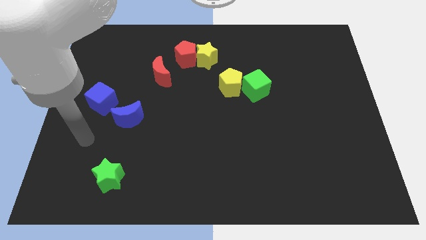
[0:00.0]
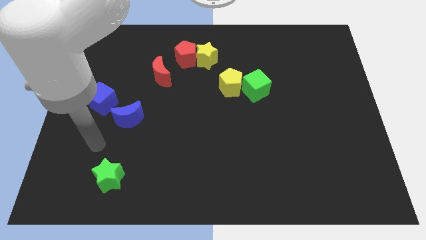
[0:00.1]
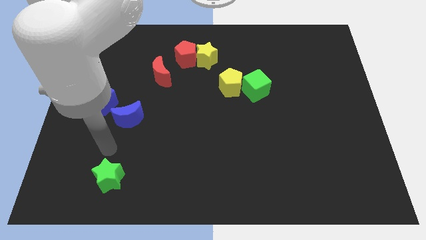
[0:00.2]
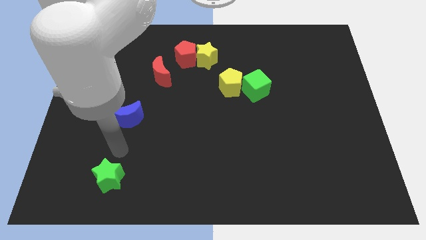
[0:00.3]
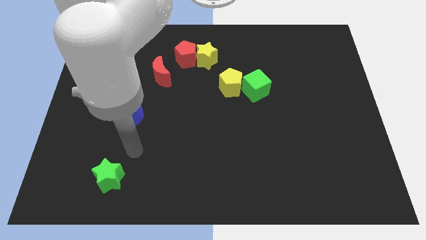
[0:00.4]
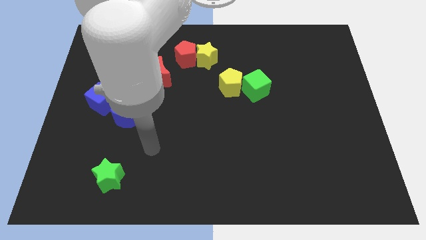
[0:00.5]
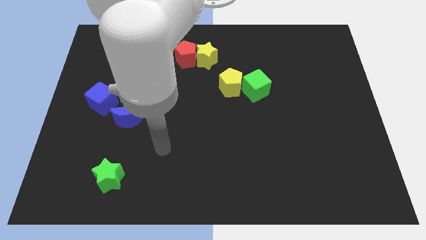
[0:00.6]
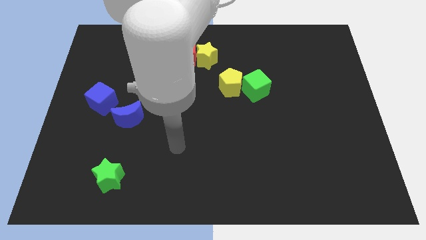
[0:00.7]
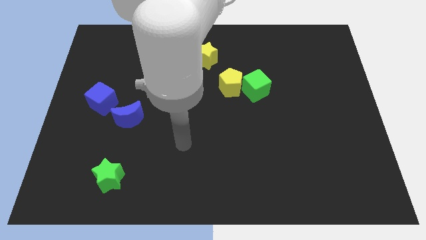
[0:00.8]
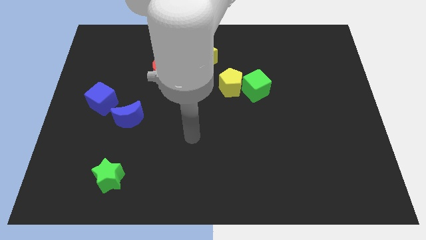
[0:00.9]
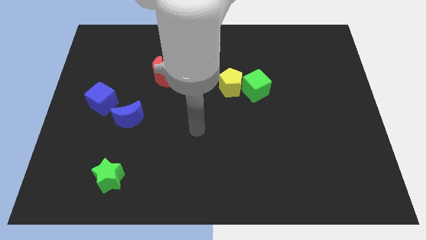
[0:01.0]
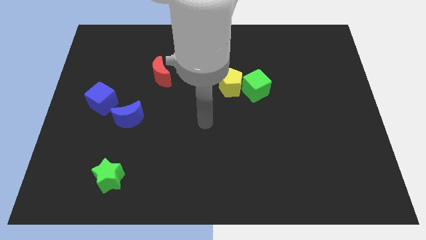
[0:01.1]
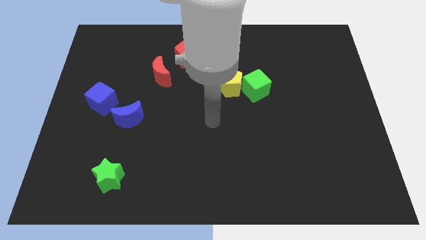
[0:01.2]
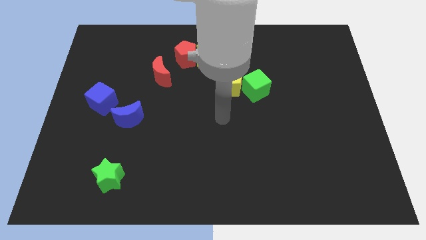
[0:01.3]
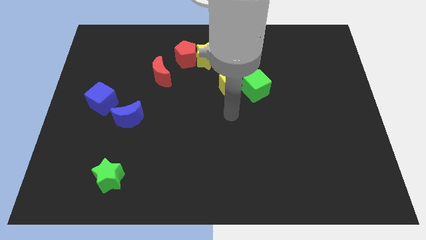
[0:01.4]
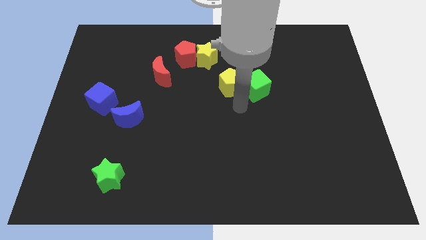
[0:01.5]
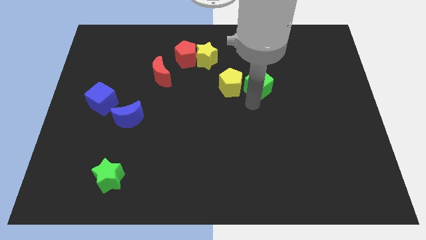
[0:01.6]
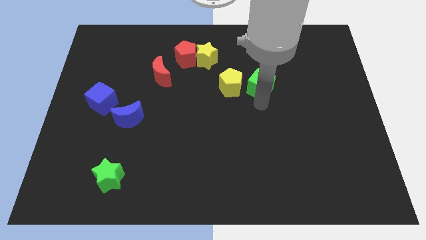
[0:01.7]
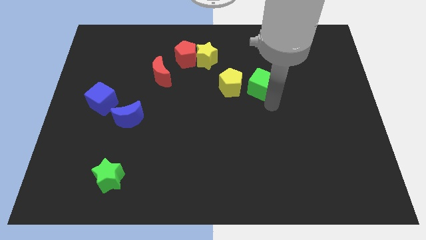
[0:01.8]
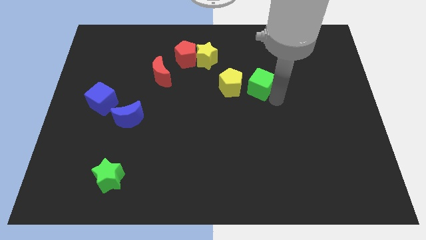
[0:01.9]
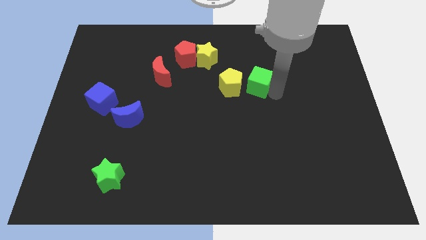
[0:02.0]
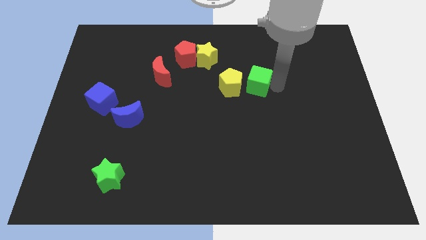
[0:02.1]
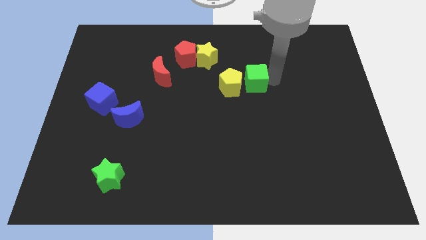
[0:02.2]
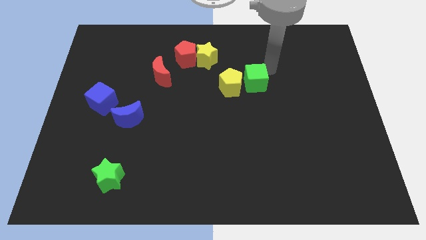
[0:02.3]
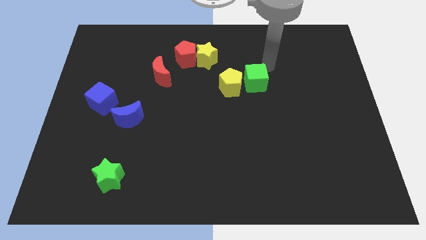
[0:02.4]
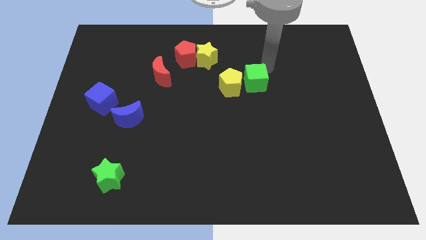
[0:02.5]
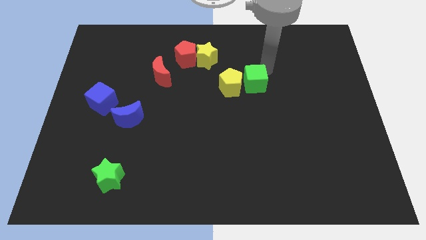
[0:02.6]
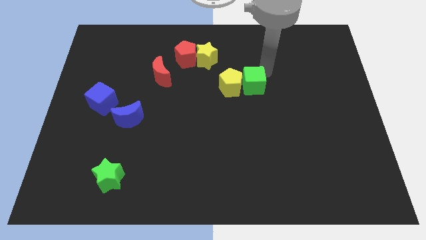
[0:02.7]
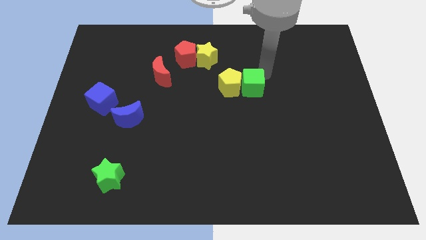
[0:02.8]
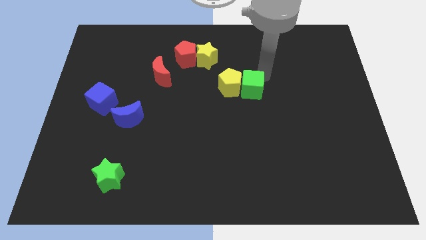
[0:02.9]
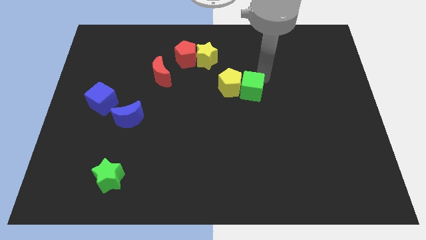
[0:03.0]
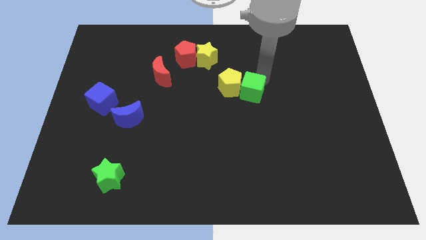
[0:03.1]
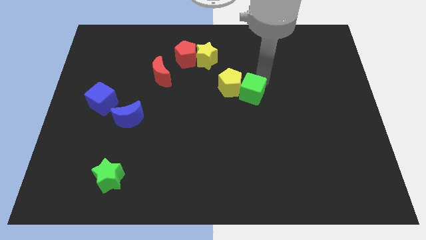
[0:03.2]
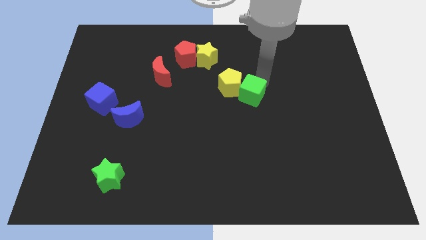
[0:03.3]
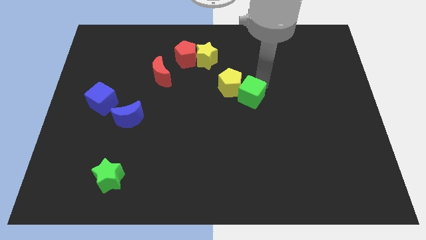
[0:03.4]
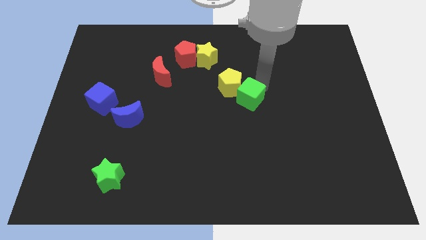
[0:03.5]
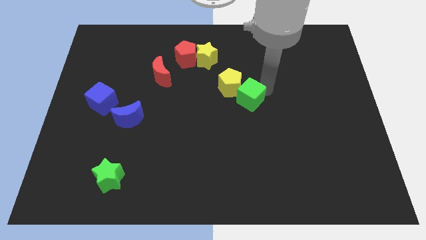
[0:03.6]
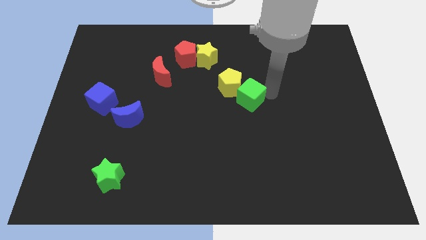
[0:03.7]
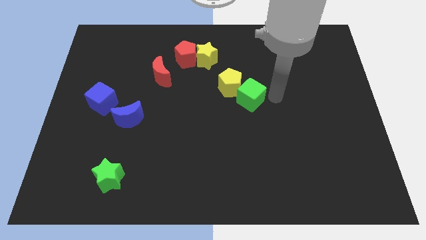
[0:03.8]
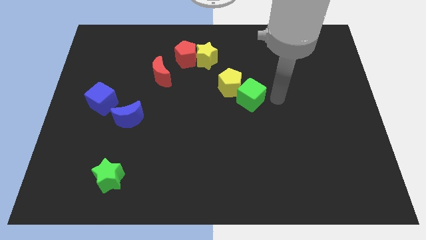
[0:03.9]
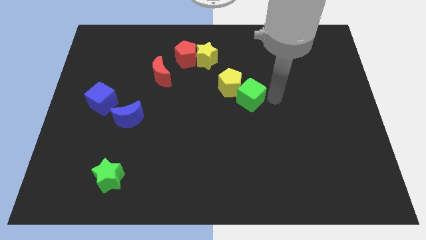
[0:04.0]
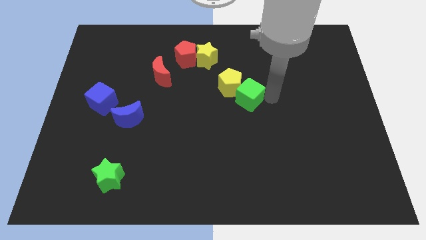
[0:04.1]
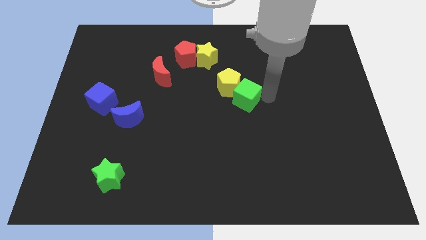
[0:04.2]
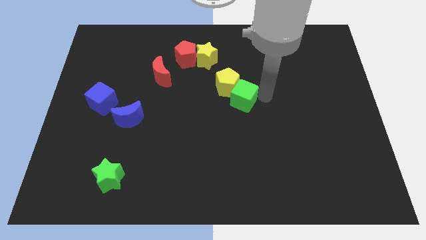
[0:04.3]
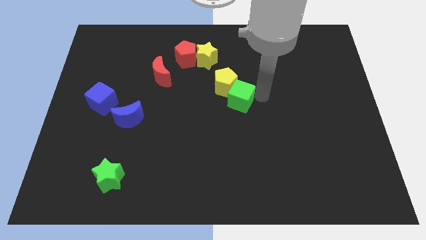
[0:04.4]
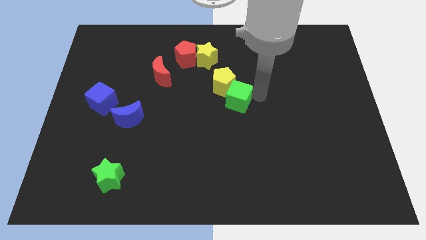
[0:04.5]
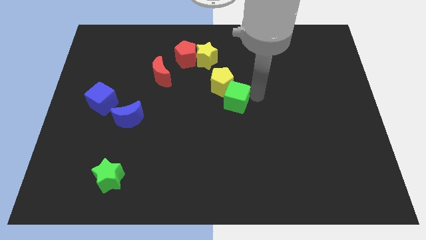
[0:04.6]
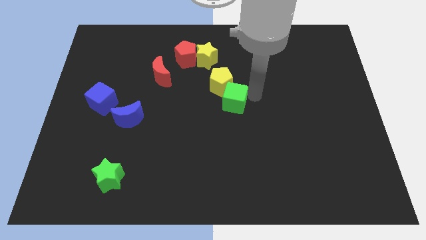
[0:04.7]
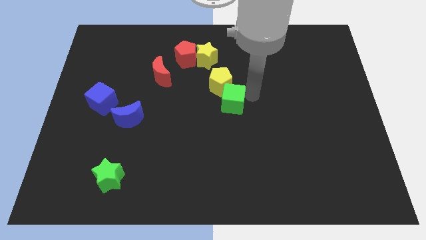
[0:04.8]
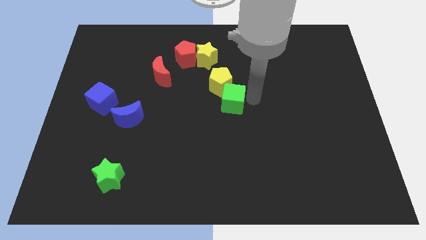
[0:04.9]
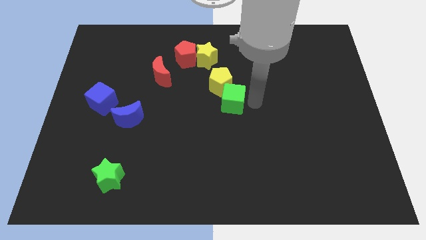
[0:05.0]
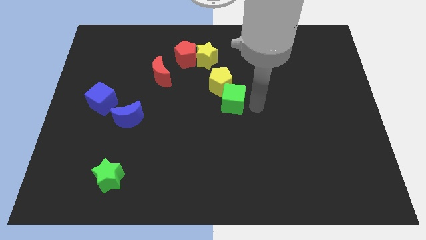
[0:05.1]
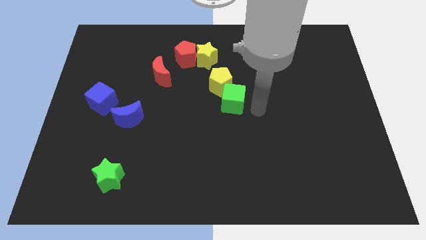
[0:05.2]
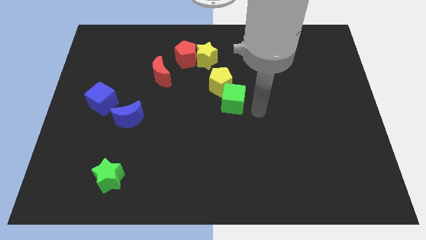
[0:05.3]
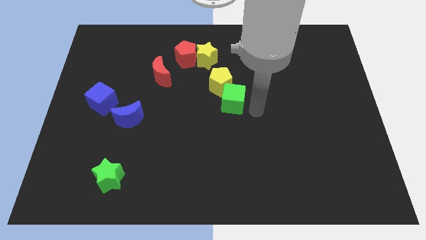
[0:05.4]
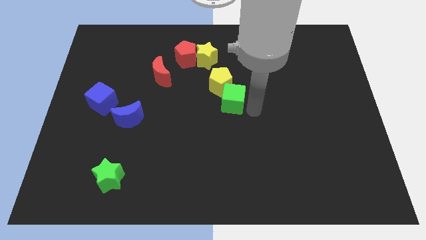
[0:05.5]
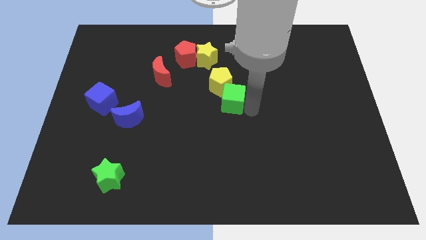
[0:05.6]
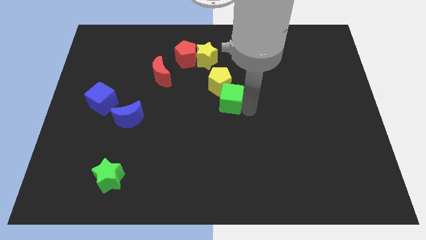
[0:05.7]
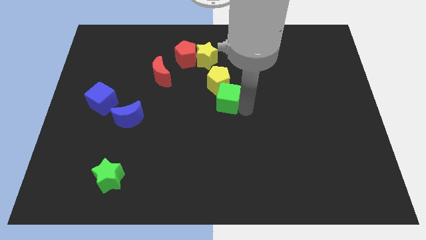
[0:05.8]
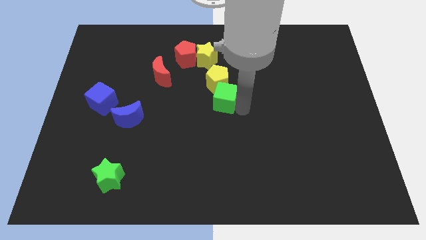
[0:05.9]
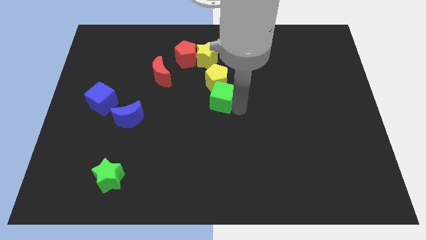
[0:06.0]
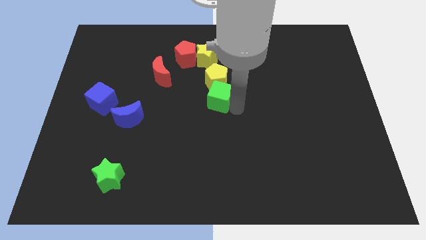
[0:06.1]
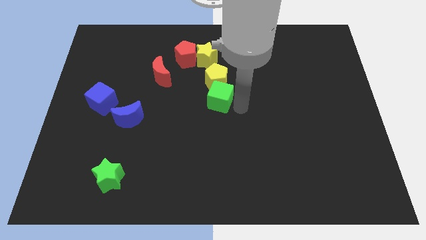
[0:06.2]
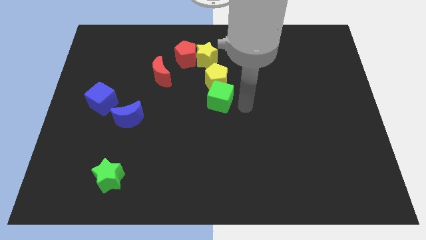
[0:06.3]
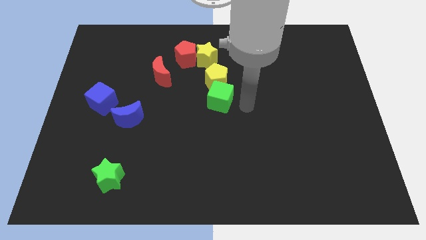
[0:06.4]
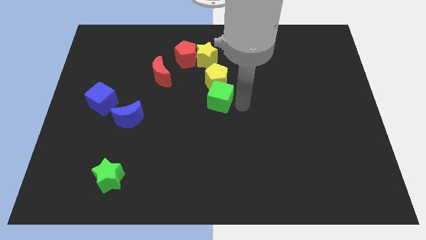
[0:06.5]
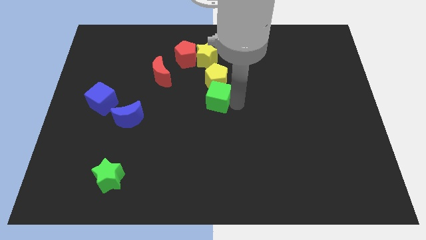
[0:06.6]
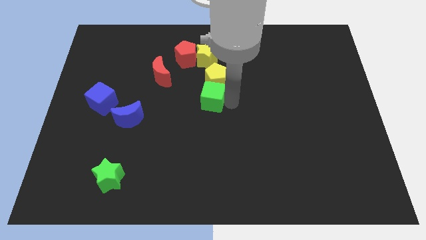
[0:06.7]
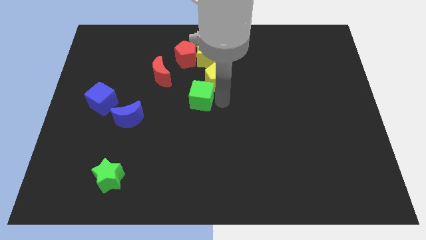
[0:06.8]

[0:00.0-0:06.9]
push the green cube to the bottom right of the red moon

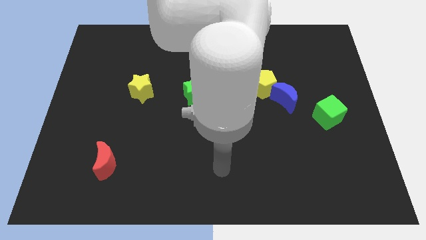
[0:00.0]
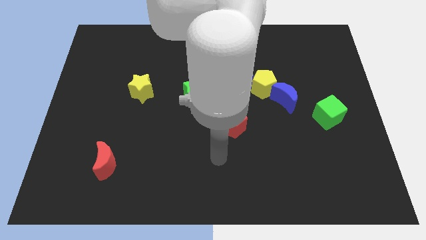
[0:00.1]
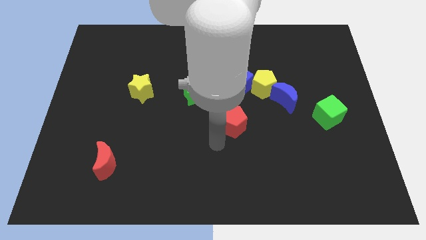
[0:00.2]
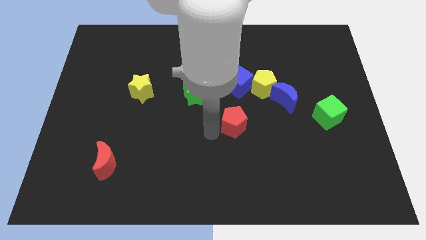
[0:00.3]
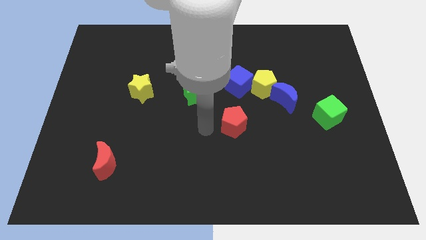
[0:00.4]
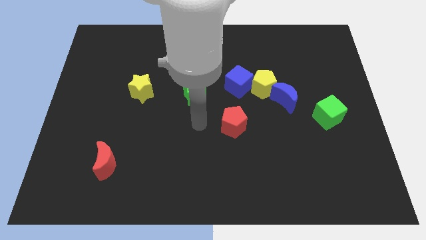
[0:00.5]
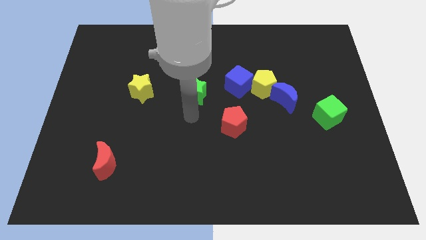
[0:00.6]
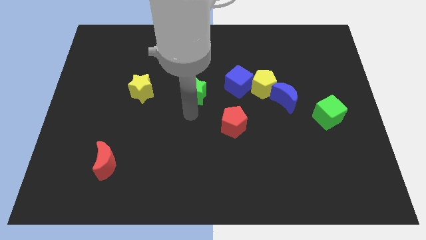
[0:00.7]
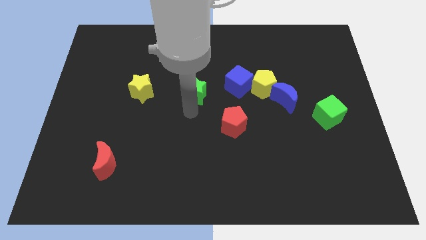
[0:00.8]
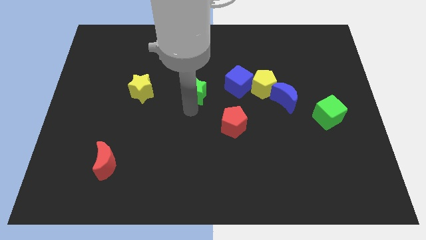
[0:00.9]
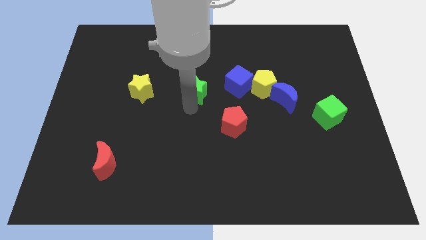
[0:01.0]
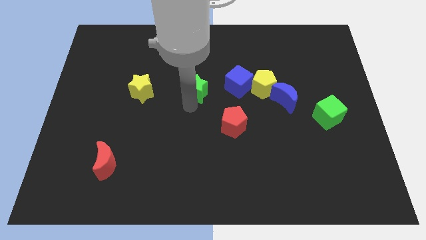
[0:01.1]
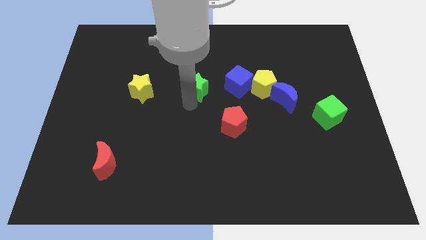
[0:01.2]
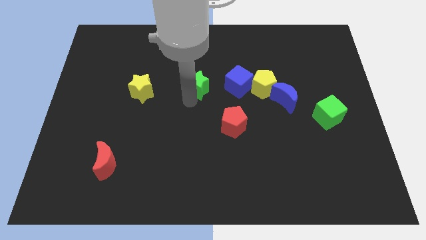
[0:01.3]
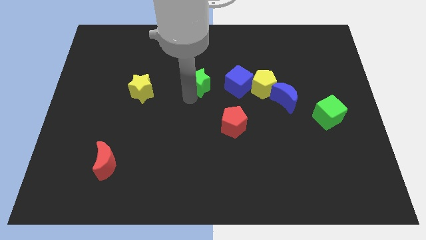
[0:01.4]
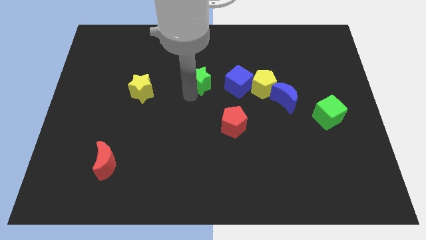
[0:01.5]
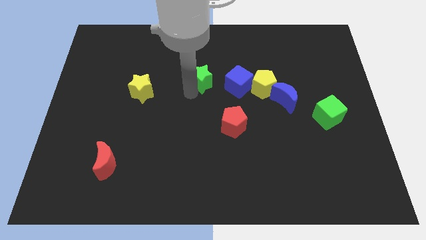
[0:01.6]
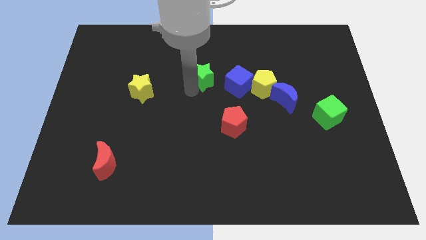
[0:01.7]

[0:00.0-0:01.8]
put the green star to the top left side of the blue cube
